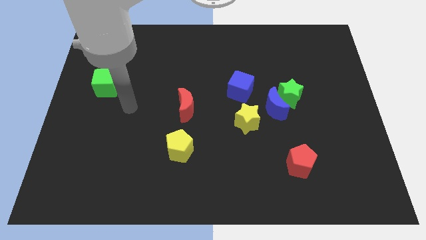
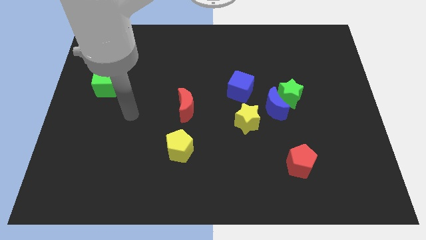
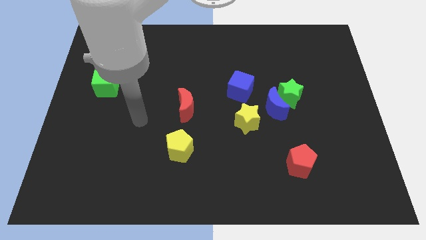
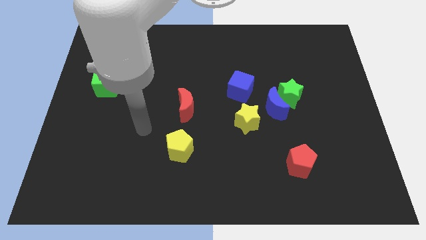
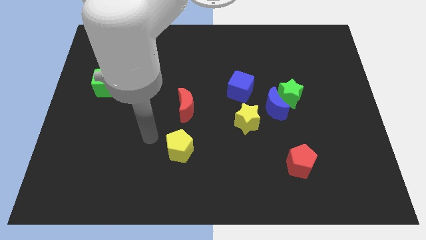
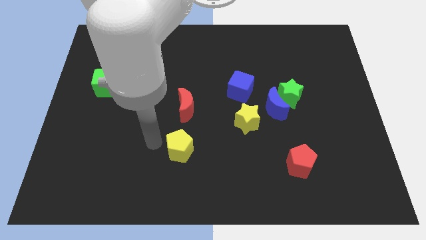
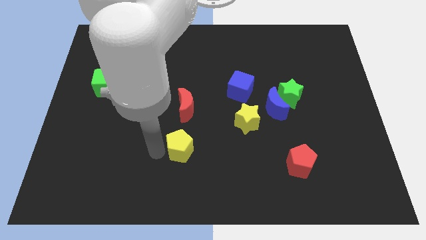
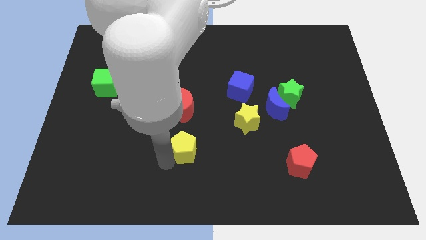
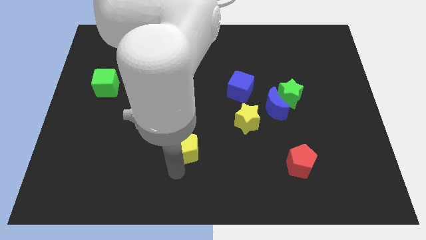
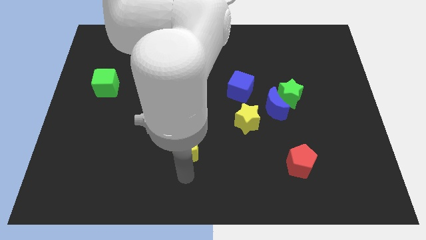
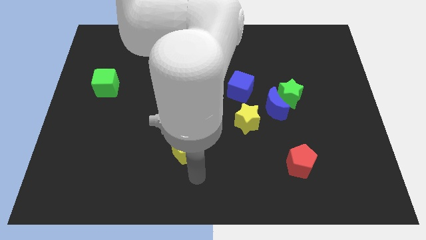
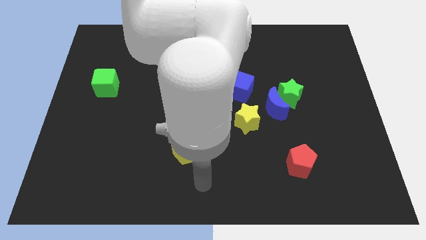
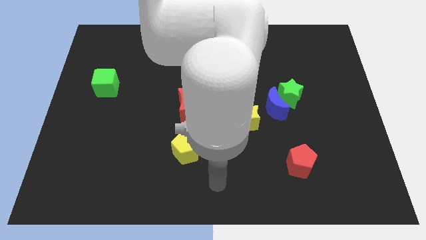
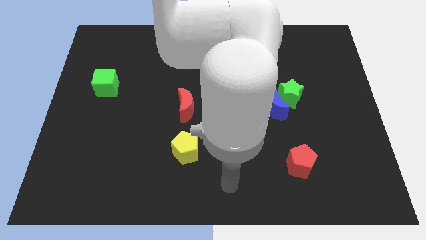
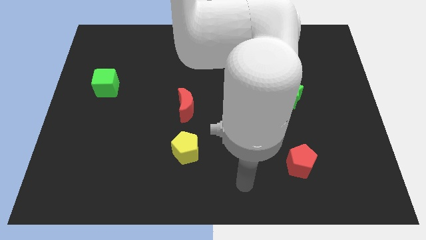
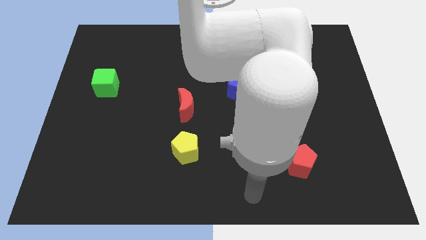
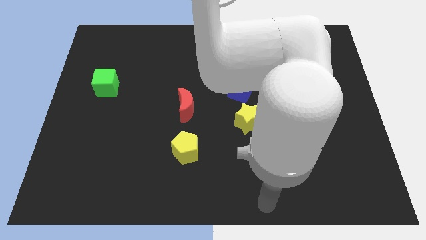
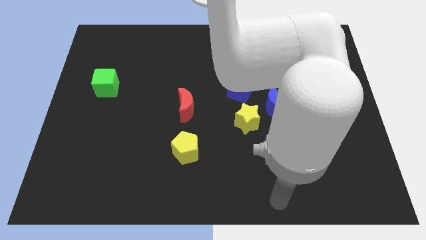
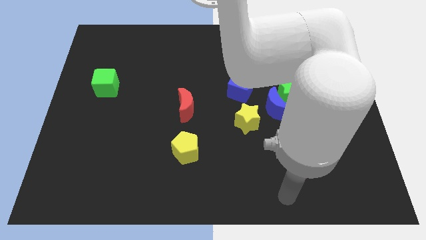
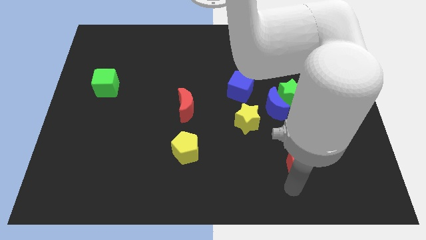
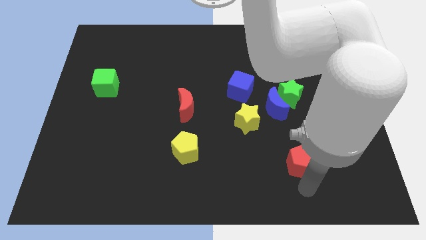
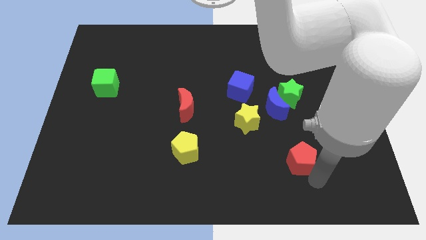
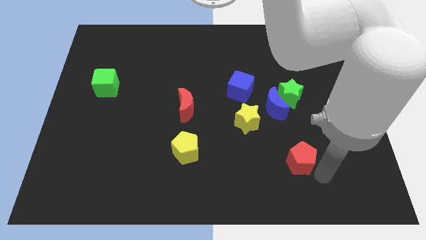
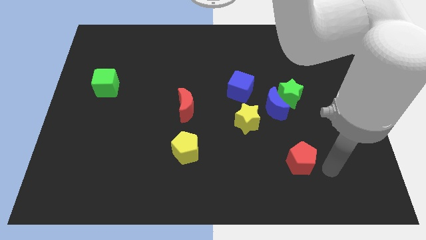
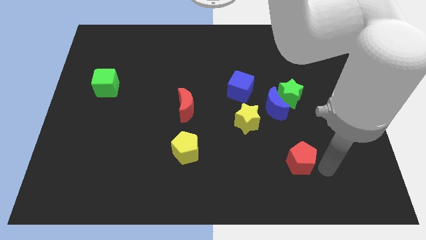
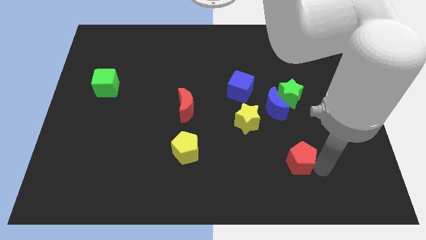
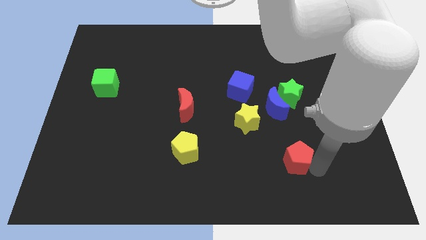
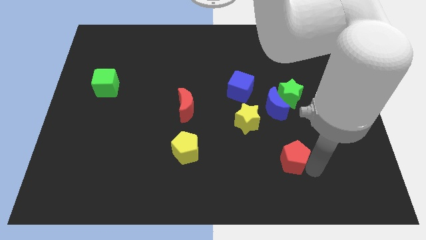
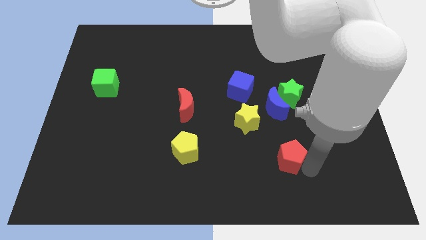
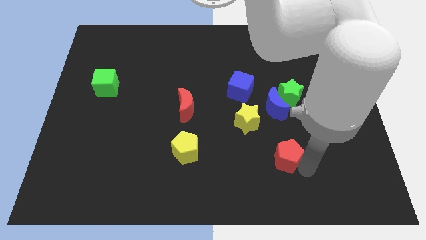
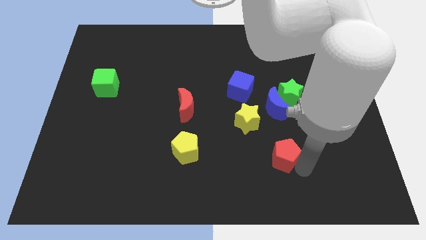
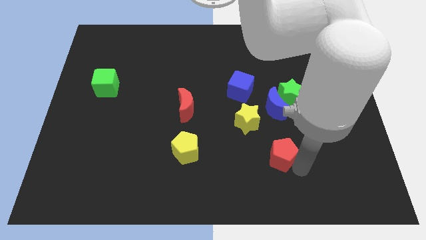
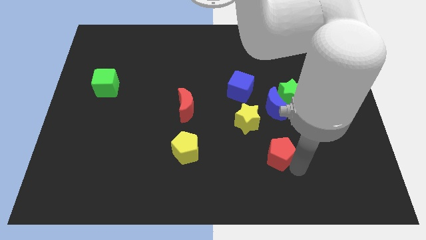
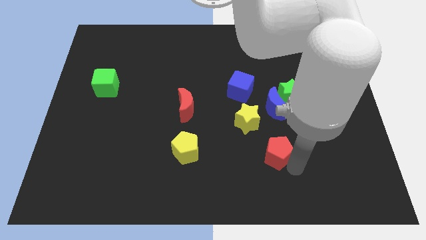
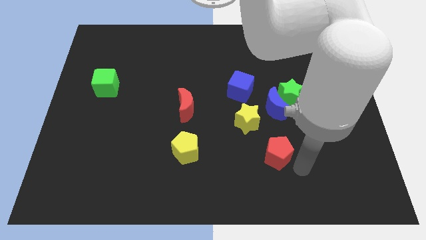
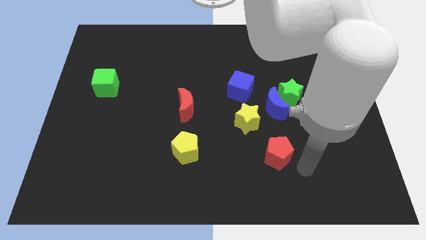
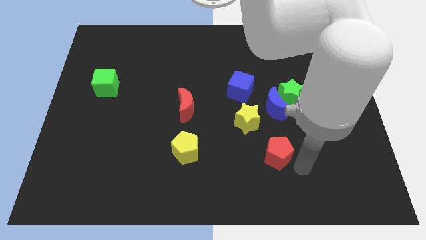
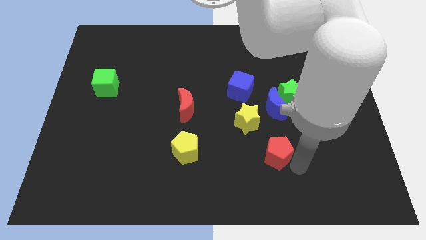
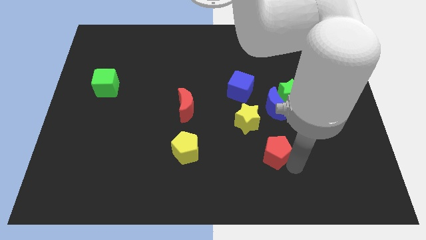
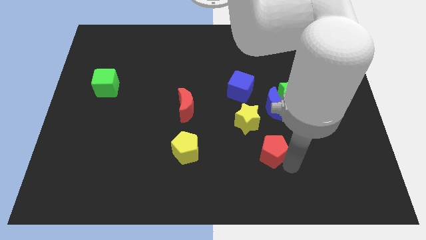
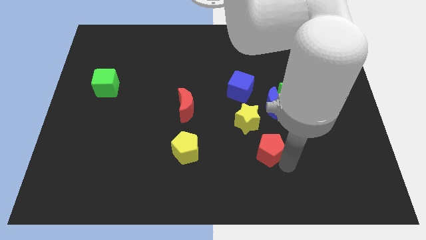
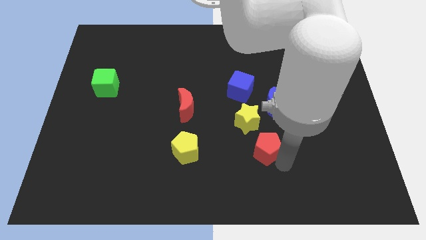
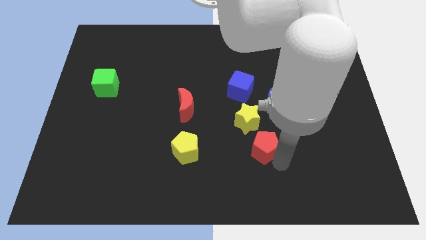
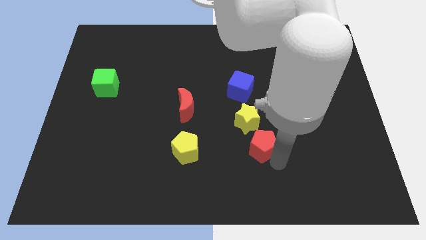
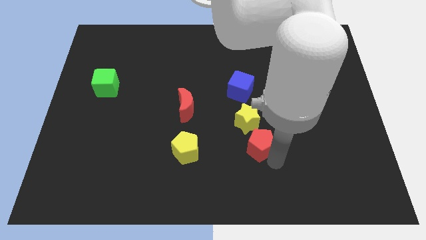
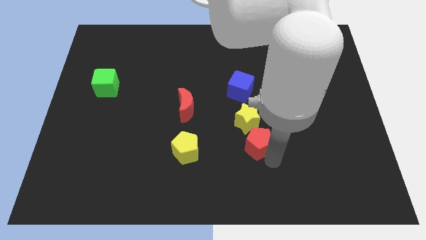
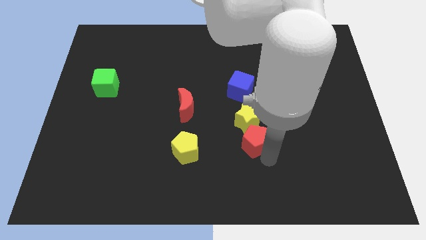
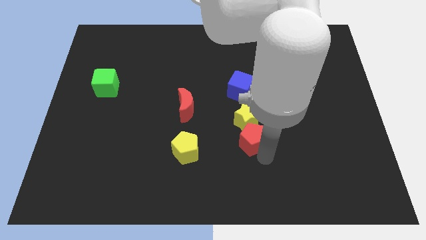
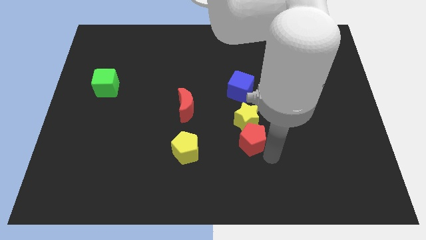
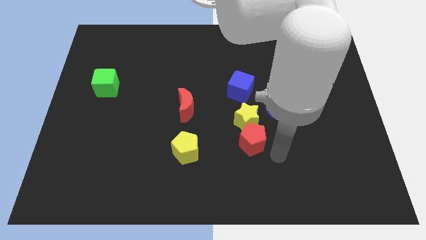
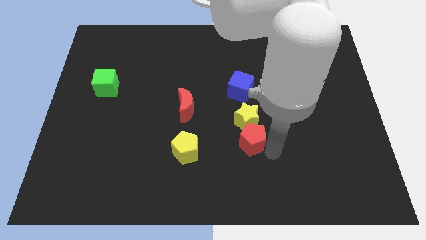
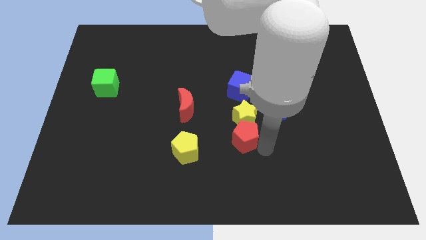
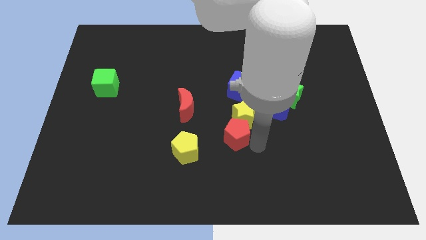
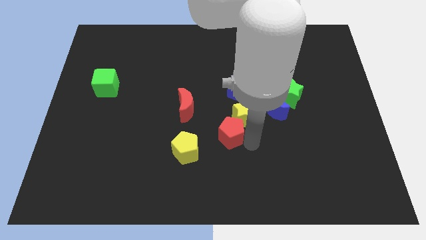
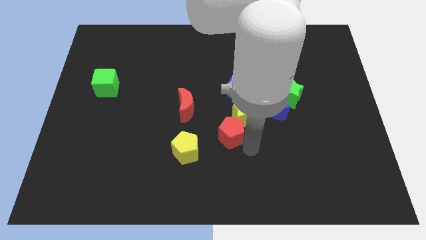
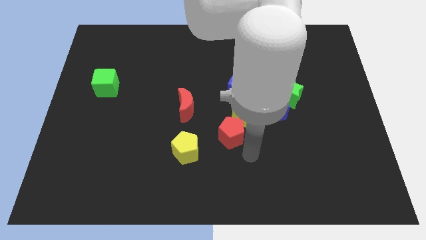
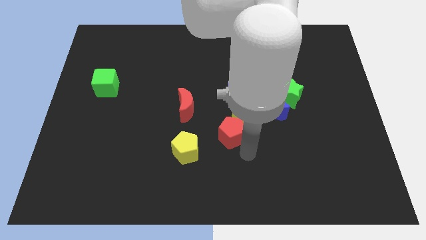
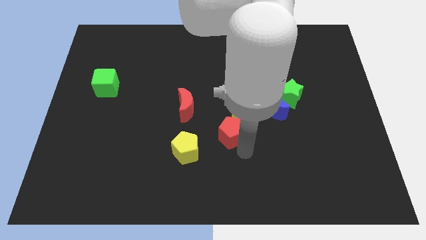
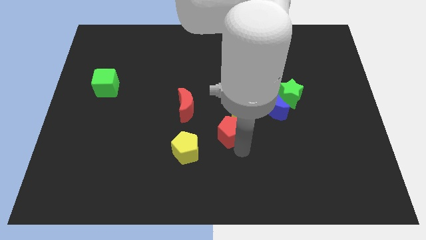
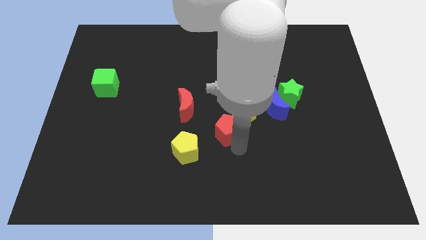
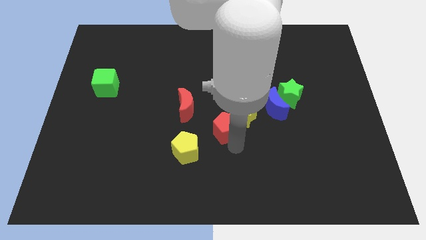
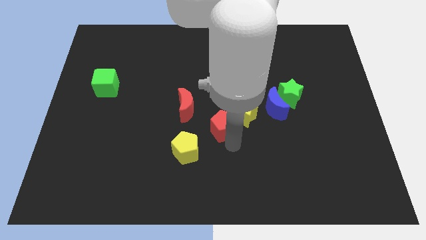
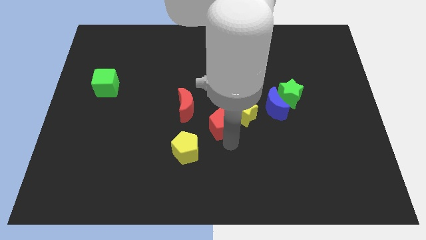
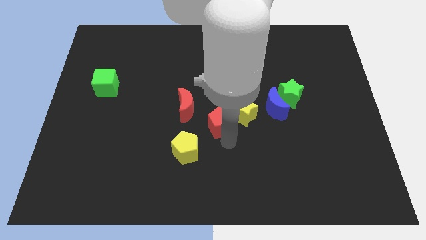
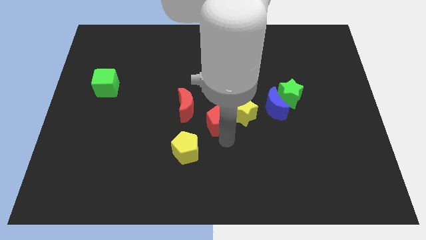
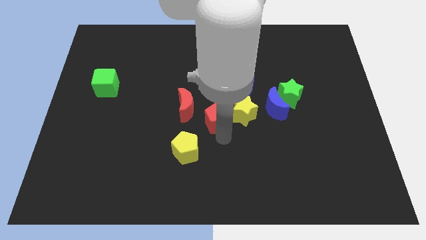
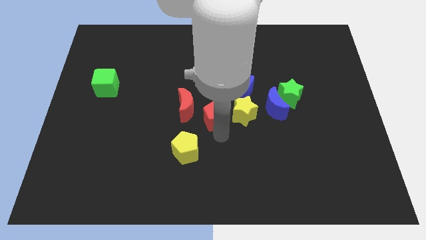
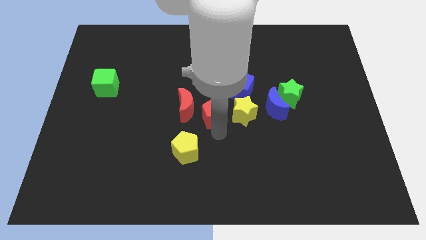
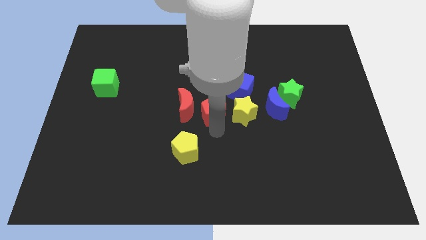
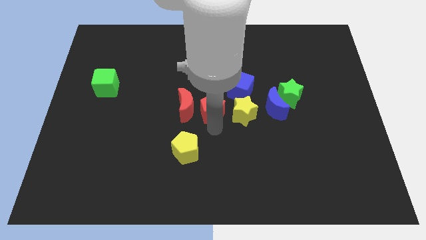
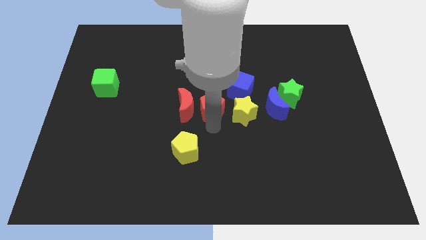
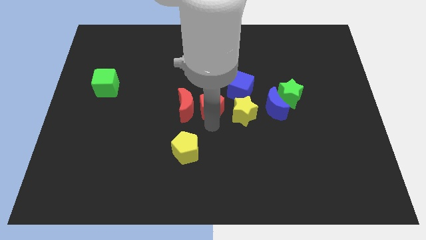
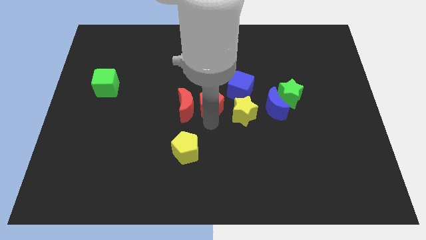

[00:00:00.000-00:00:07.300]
slide the red pentagon above the yellow pentagon
